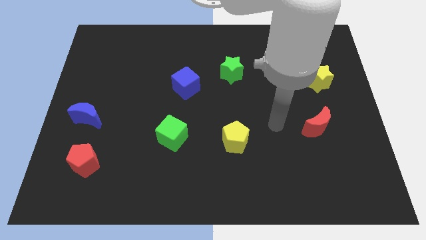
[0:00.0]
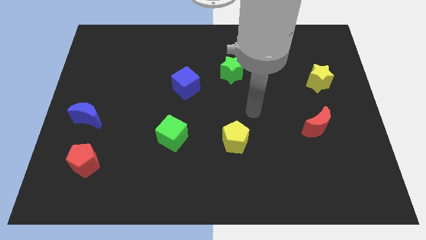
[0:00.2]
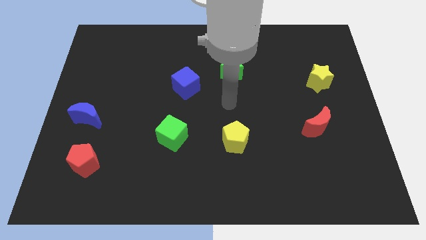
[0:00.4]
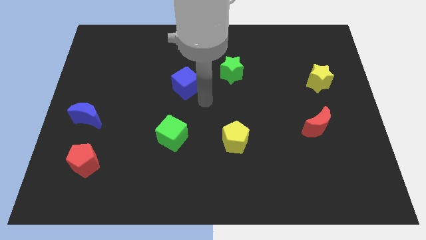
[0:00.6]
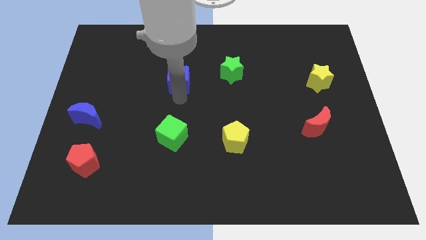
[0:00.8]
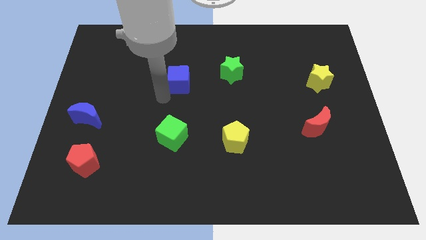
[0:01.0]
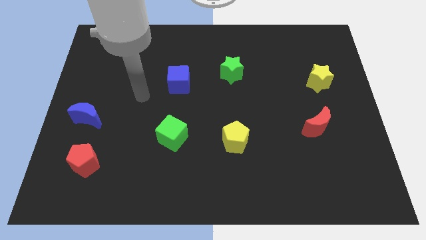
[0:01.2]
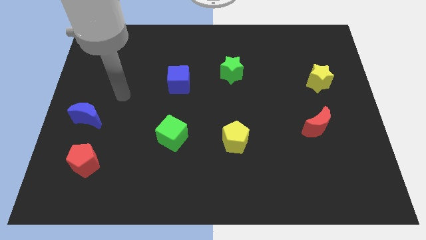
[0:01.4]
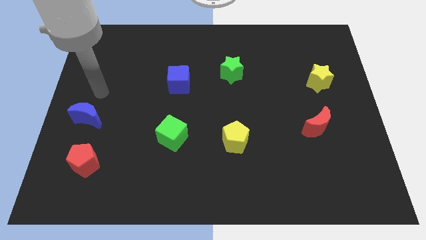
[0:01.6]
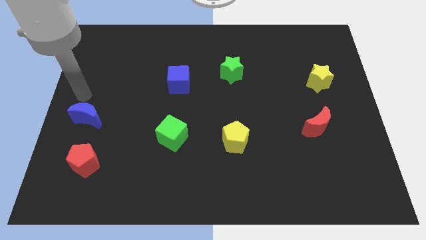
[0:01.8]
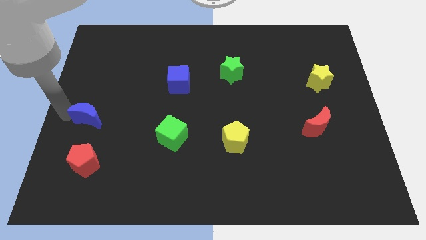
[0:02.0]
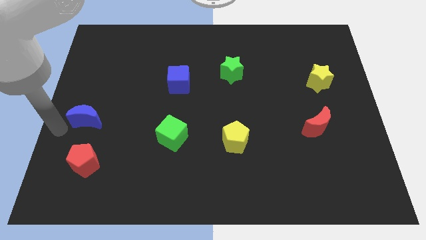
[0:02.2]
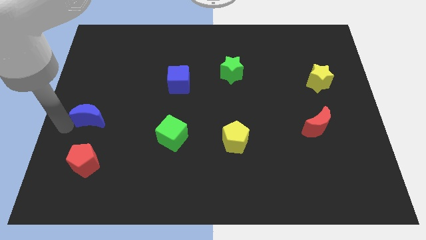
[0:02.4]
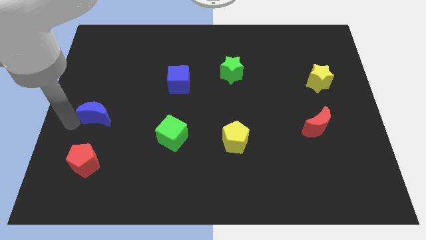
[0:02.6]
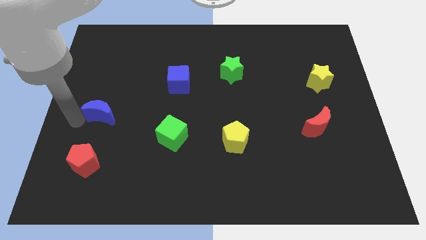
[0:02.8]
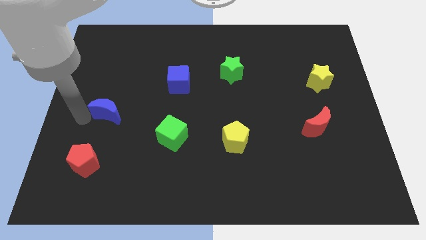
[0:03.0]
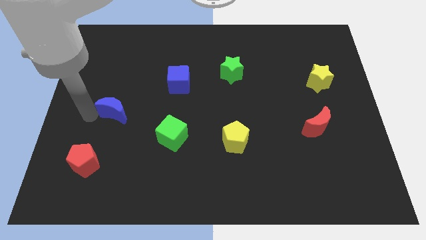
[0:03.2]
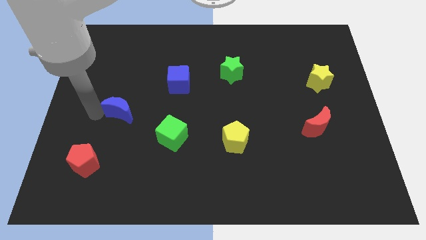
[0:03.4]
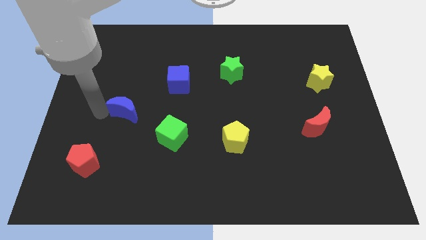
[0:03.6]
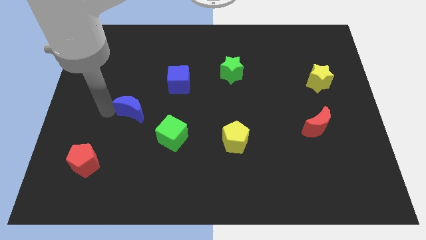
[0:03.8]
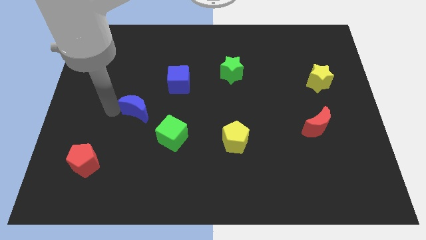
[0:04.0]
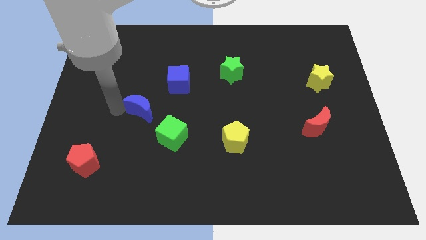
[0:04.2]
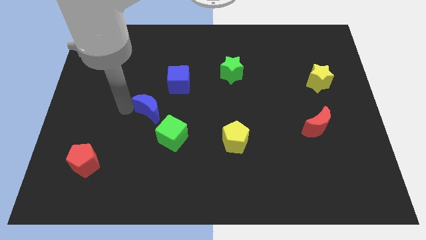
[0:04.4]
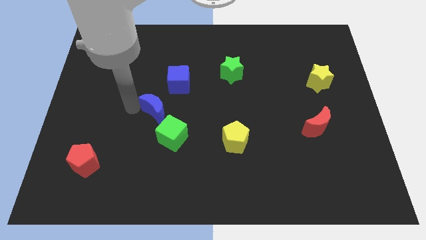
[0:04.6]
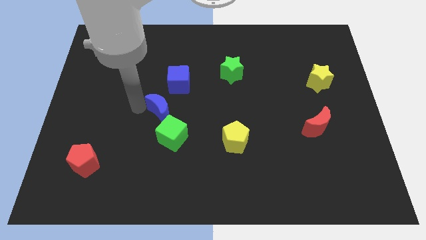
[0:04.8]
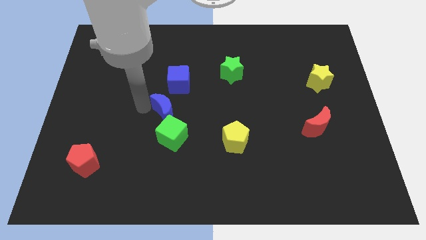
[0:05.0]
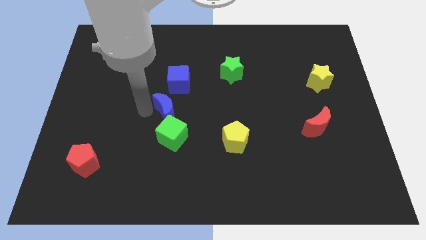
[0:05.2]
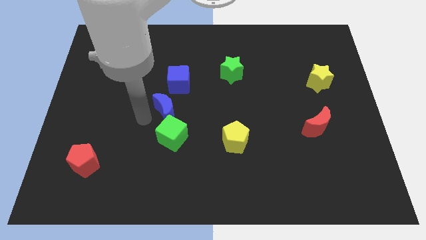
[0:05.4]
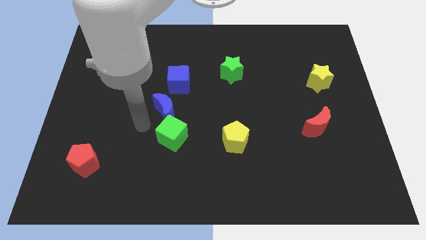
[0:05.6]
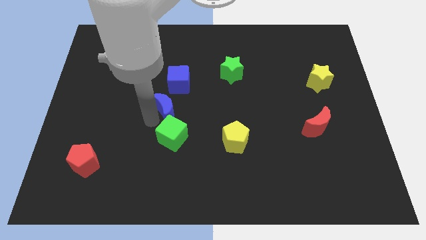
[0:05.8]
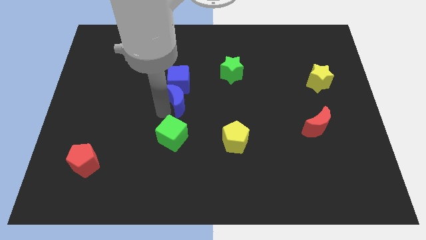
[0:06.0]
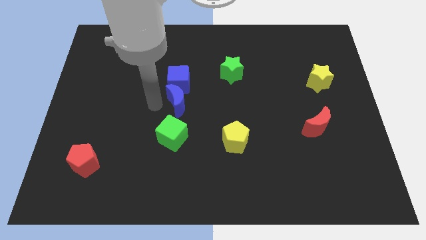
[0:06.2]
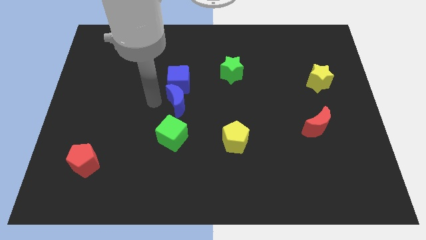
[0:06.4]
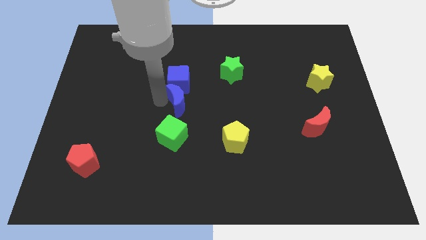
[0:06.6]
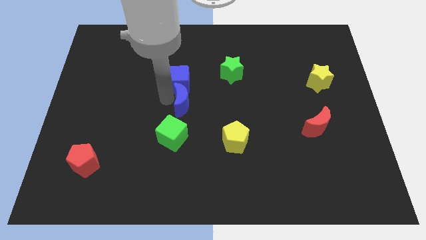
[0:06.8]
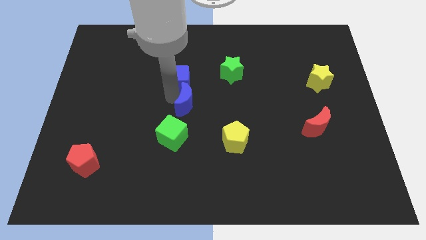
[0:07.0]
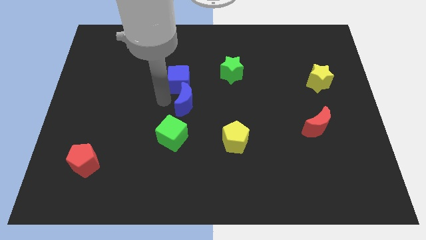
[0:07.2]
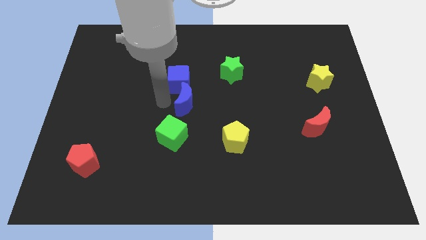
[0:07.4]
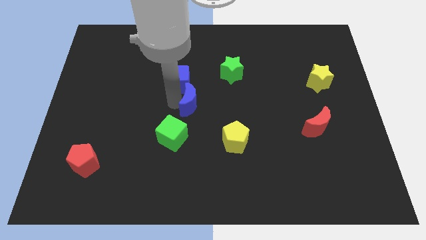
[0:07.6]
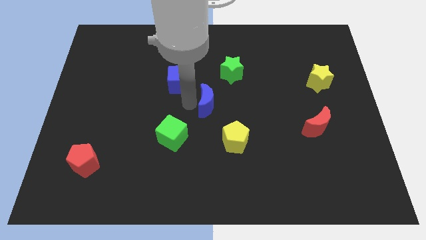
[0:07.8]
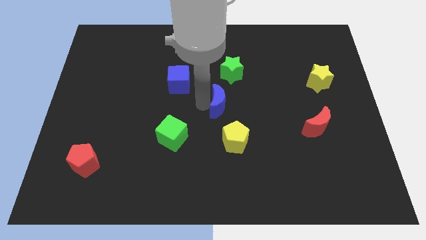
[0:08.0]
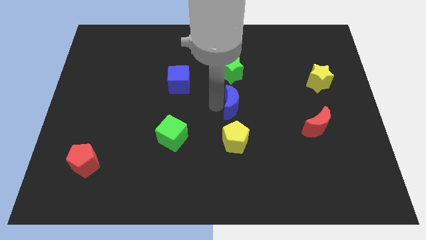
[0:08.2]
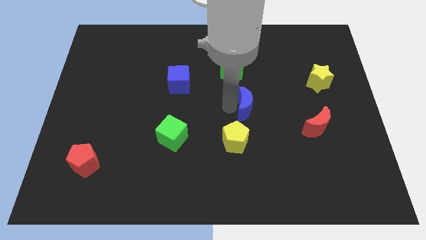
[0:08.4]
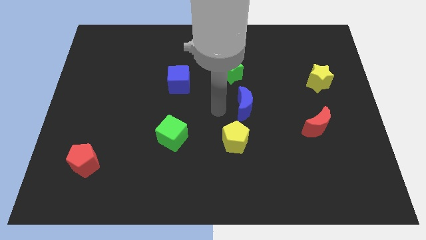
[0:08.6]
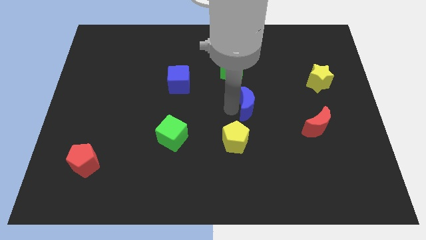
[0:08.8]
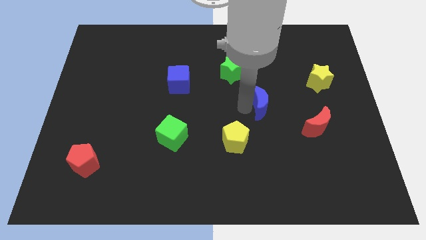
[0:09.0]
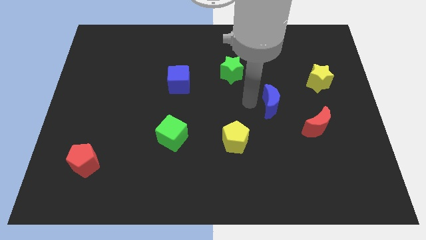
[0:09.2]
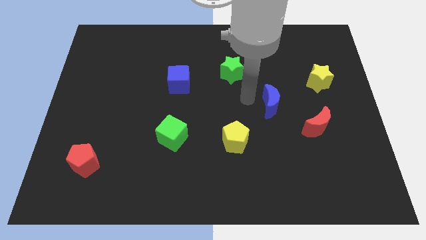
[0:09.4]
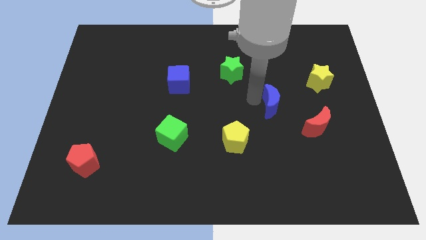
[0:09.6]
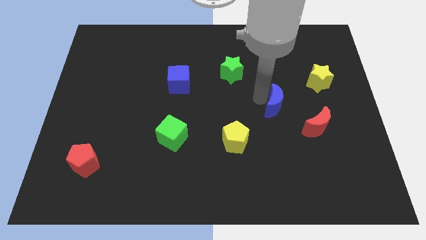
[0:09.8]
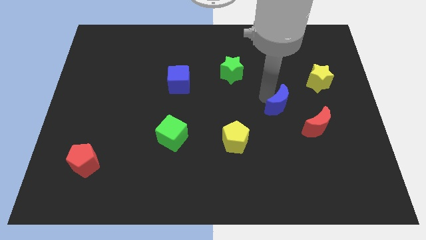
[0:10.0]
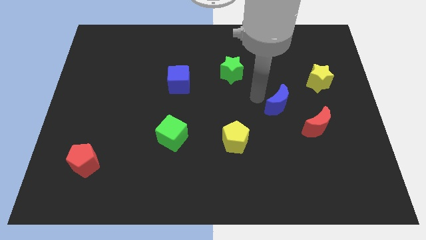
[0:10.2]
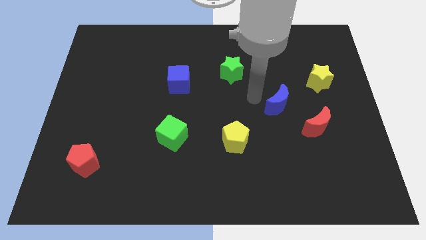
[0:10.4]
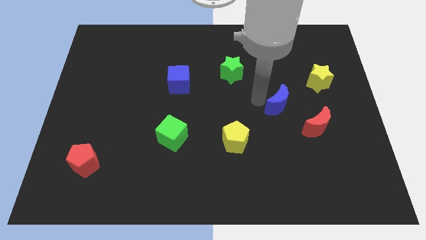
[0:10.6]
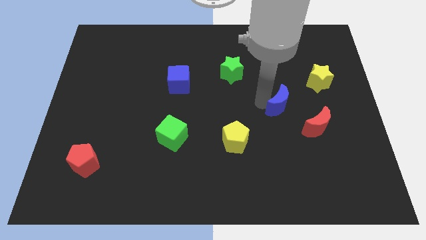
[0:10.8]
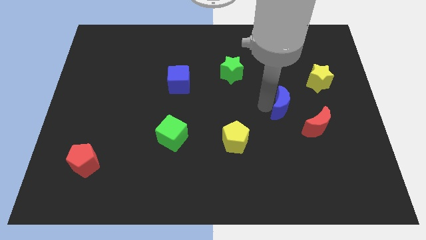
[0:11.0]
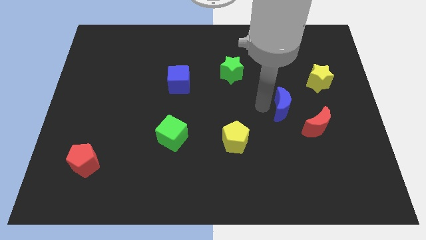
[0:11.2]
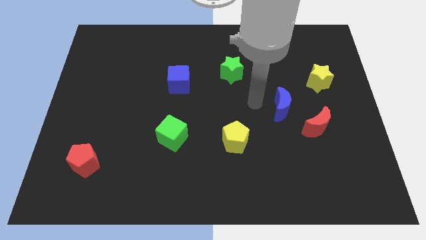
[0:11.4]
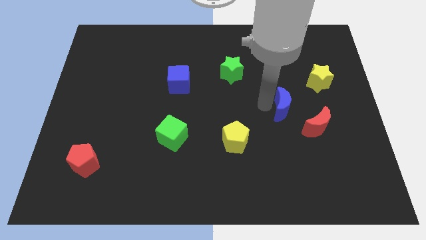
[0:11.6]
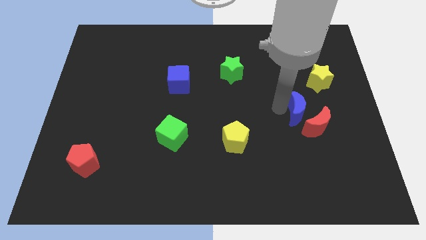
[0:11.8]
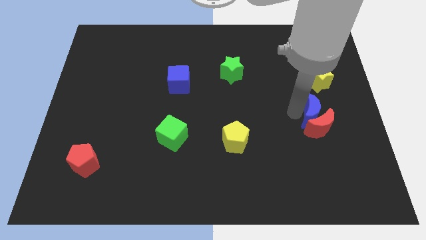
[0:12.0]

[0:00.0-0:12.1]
push the blue moon to the bottom side of the yellow star

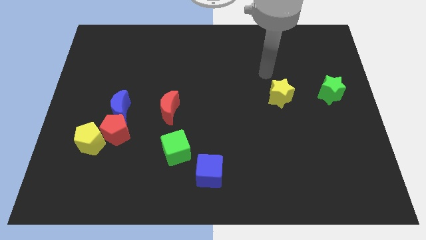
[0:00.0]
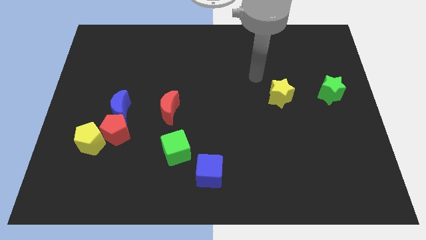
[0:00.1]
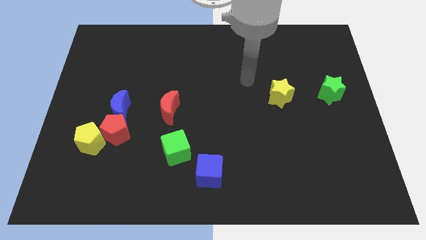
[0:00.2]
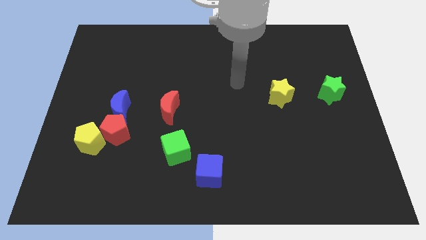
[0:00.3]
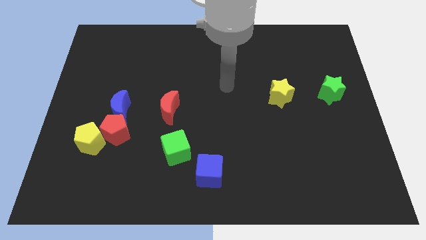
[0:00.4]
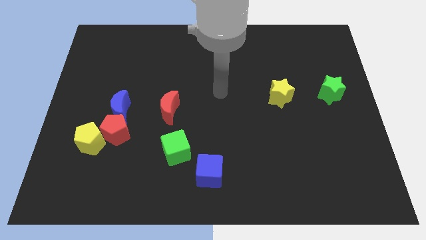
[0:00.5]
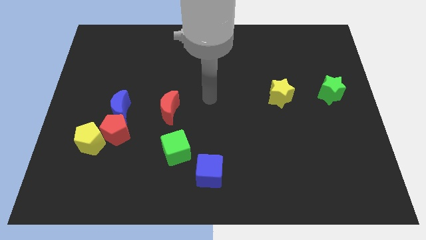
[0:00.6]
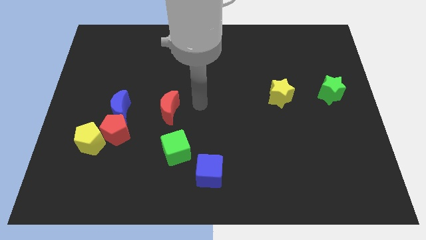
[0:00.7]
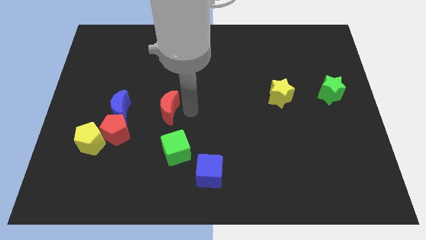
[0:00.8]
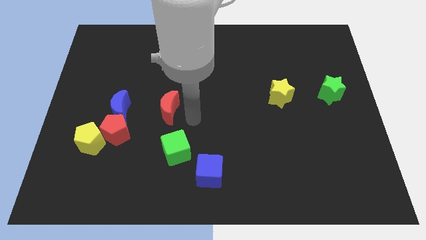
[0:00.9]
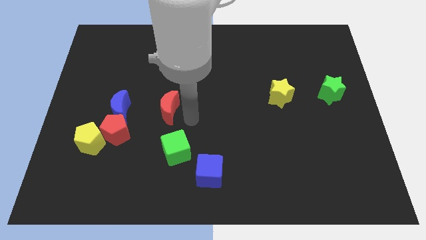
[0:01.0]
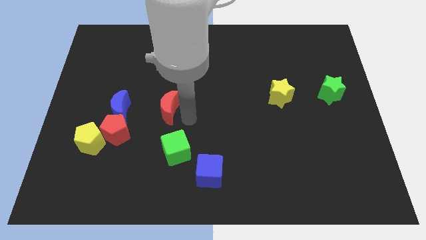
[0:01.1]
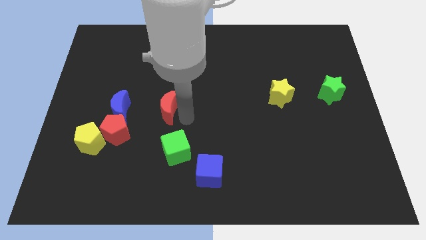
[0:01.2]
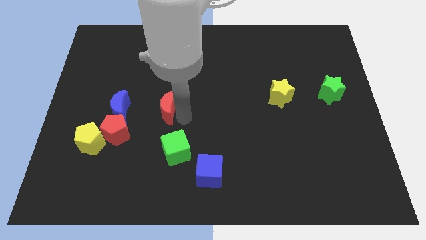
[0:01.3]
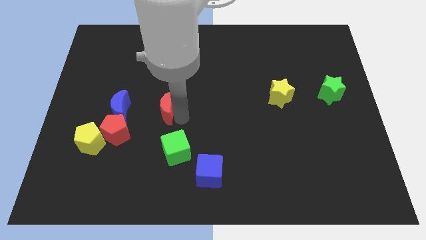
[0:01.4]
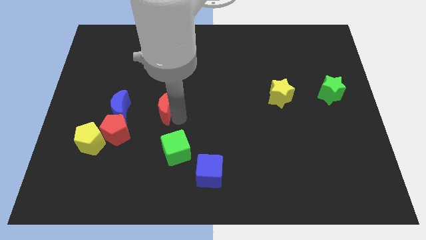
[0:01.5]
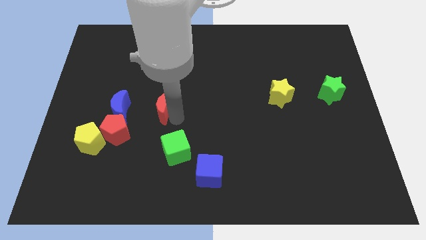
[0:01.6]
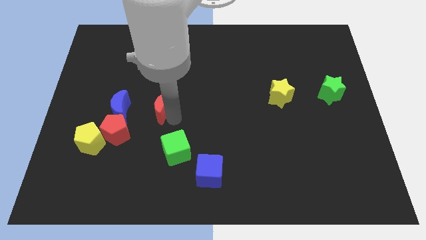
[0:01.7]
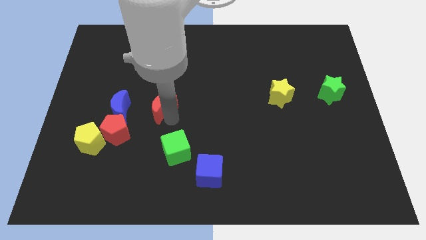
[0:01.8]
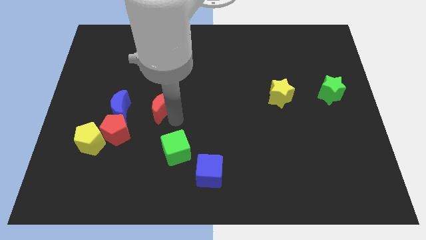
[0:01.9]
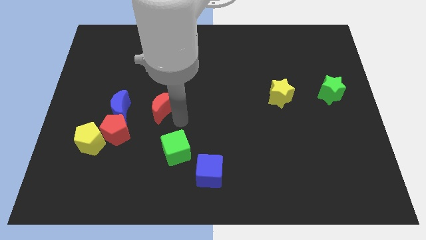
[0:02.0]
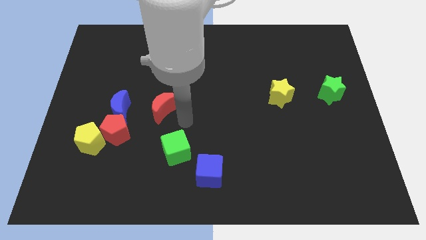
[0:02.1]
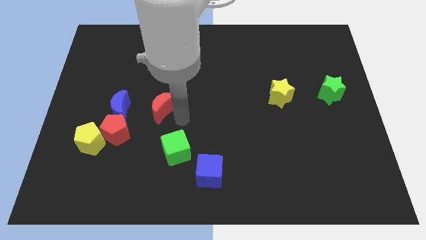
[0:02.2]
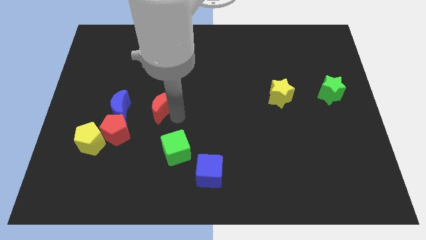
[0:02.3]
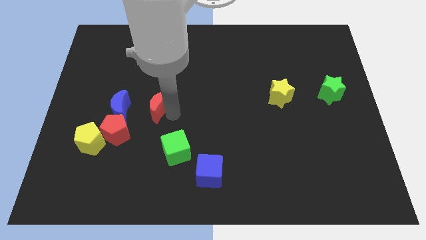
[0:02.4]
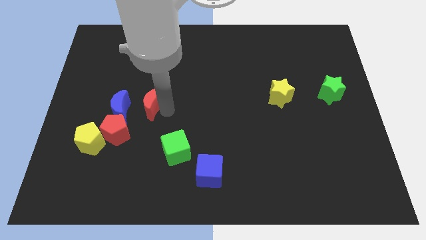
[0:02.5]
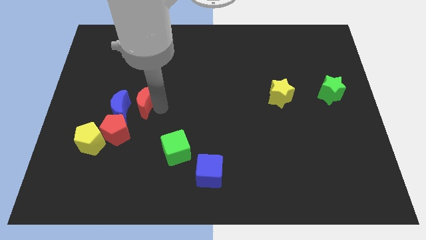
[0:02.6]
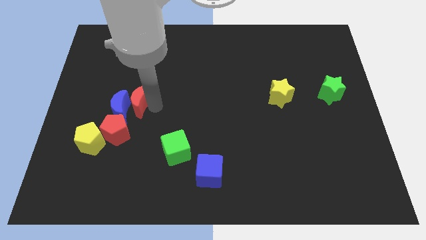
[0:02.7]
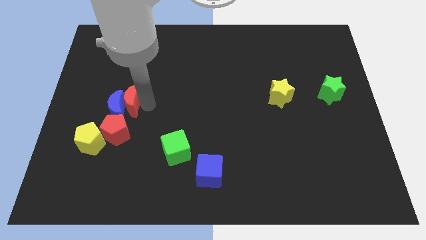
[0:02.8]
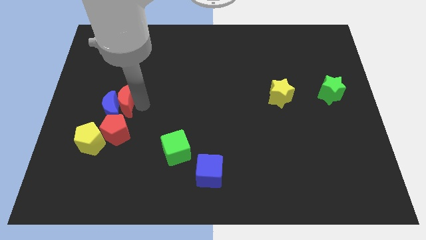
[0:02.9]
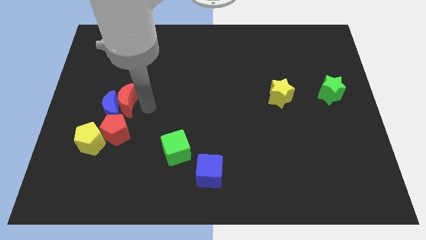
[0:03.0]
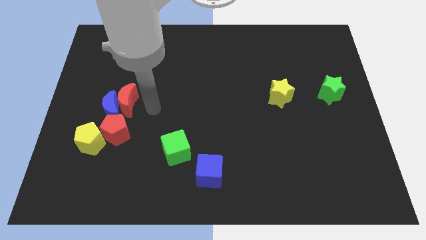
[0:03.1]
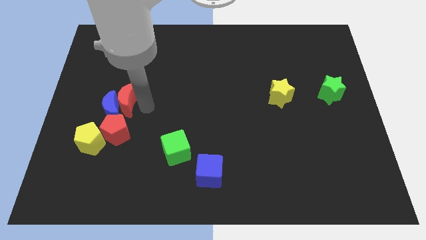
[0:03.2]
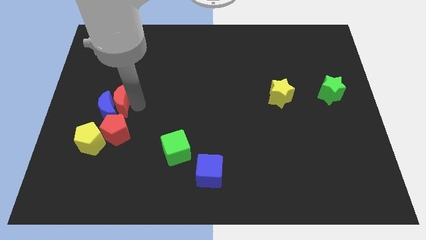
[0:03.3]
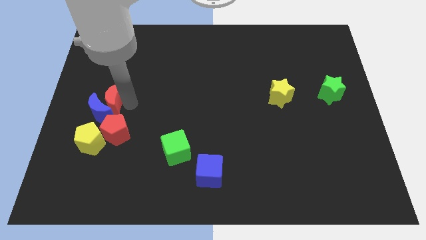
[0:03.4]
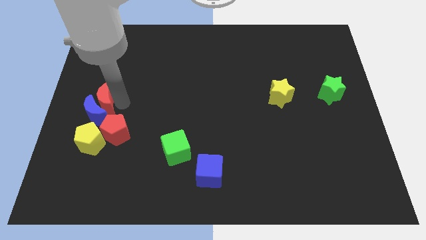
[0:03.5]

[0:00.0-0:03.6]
put the red moon to the top left of the blue moon
